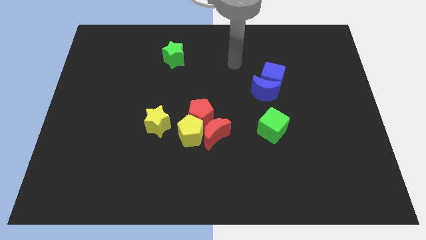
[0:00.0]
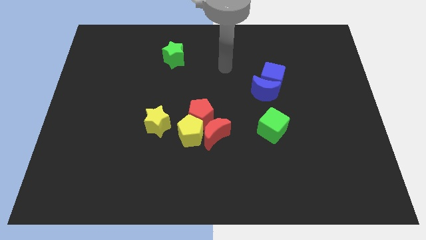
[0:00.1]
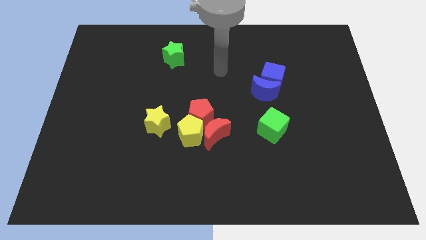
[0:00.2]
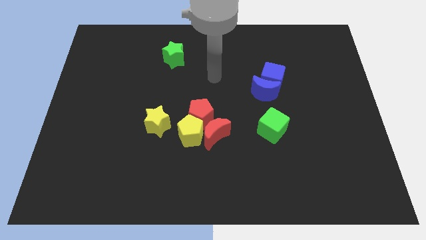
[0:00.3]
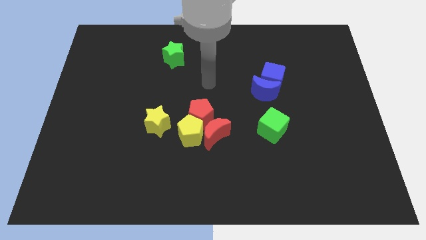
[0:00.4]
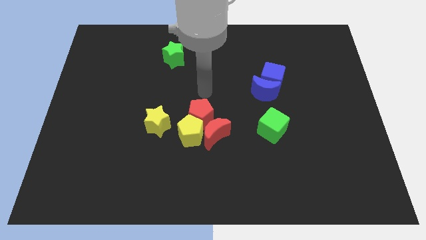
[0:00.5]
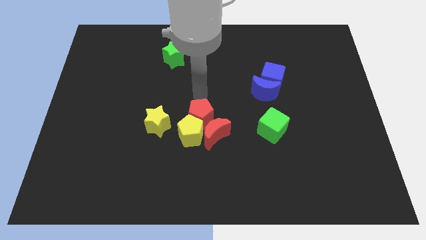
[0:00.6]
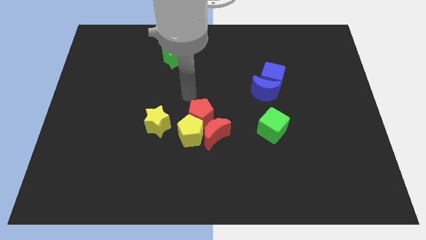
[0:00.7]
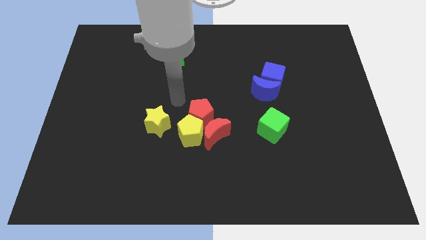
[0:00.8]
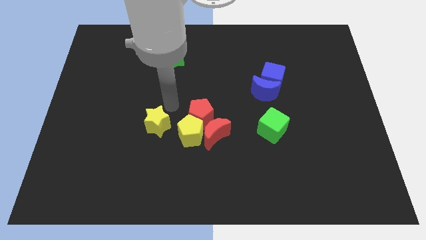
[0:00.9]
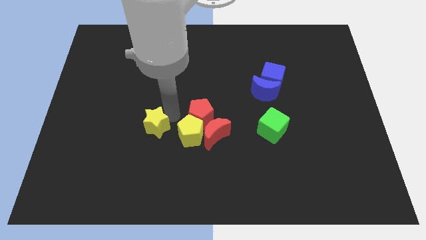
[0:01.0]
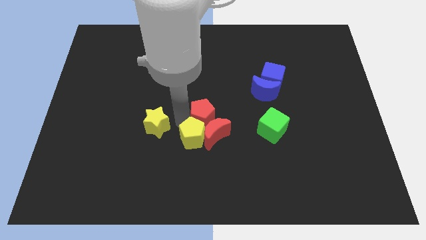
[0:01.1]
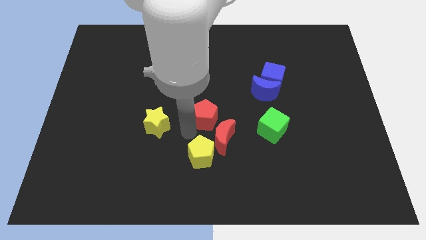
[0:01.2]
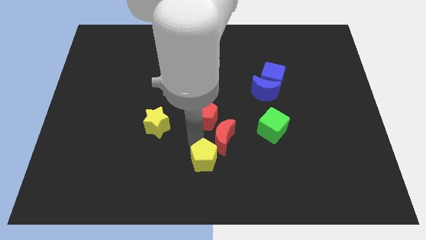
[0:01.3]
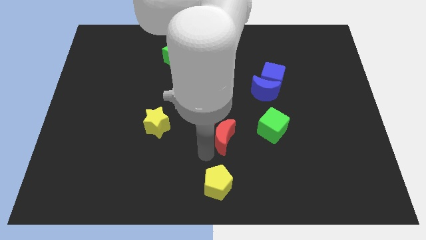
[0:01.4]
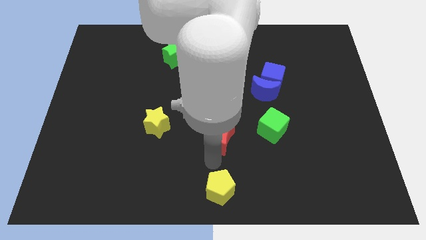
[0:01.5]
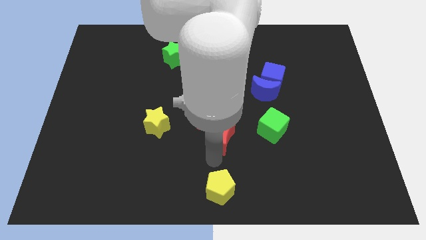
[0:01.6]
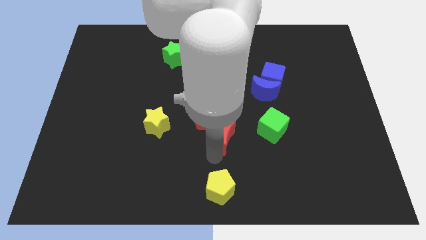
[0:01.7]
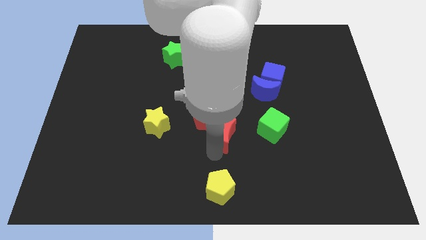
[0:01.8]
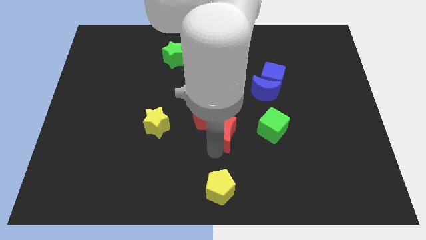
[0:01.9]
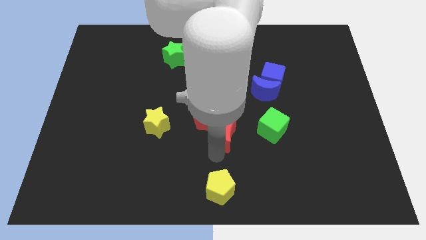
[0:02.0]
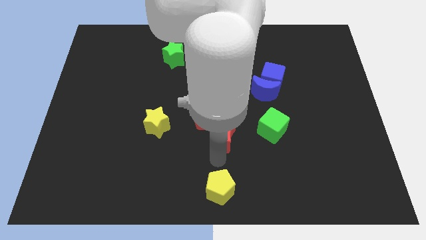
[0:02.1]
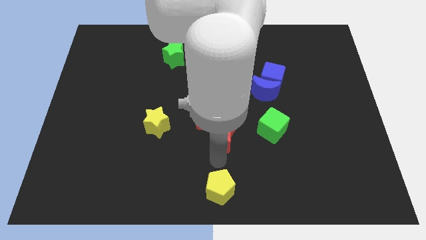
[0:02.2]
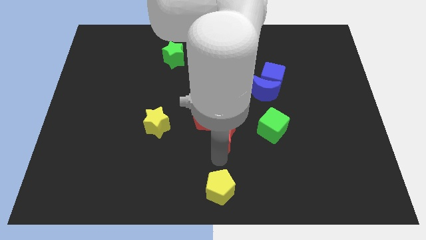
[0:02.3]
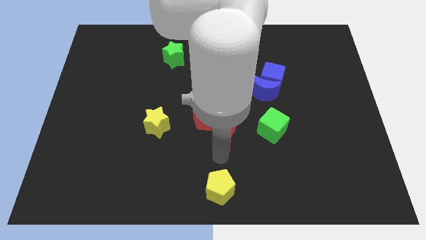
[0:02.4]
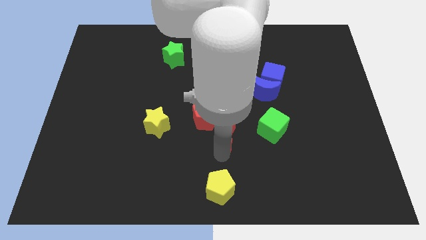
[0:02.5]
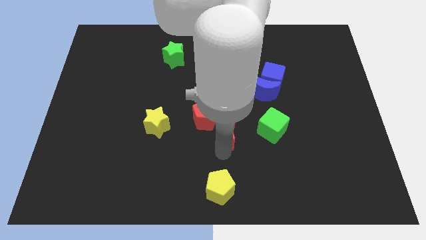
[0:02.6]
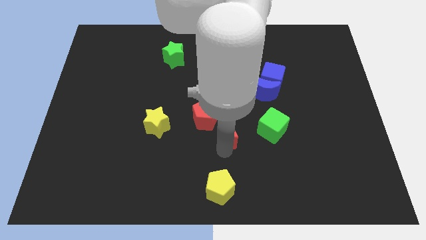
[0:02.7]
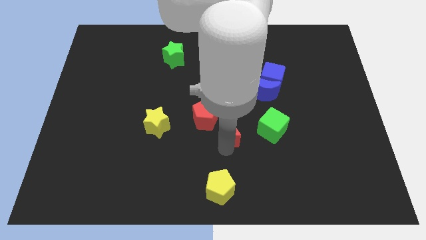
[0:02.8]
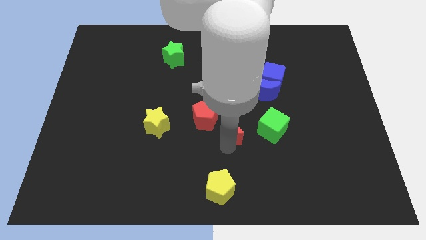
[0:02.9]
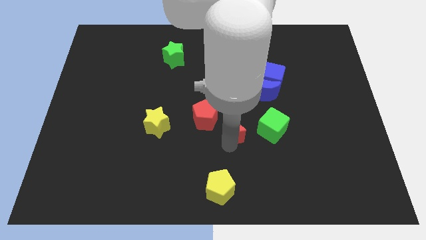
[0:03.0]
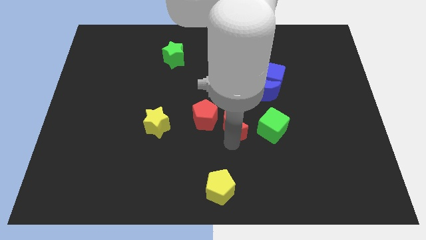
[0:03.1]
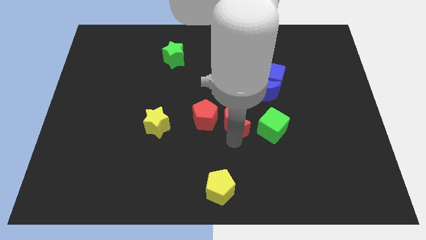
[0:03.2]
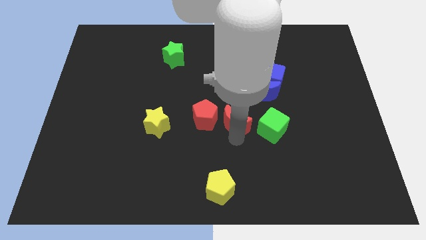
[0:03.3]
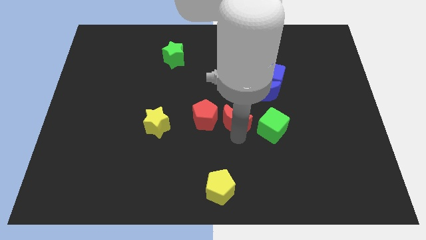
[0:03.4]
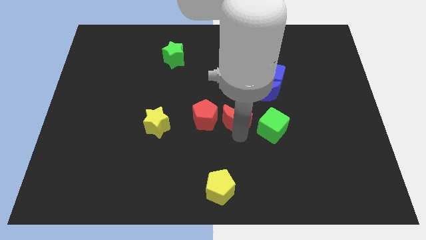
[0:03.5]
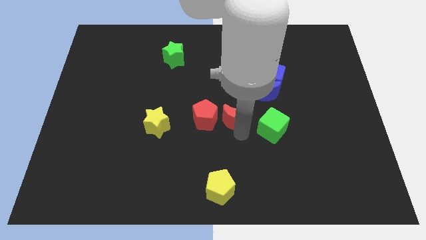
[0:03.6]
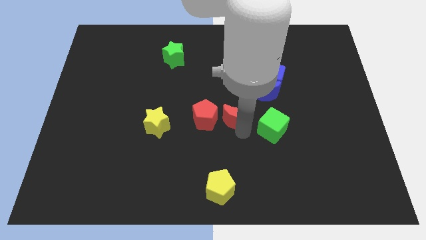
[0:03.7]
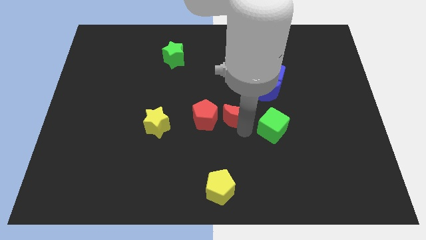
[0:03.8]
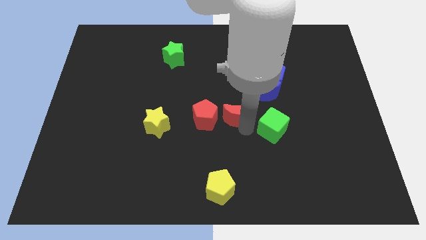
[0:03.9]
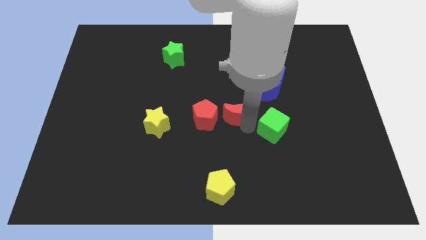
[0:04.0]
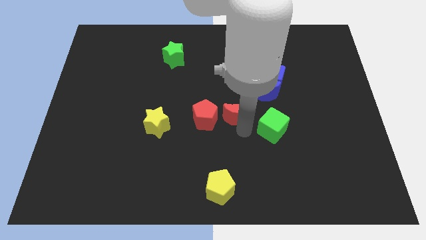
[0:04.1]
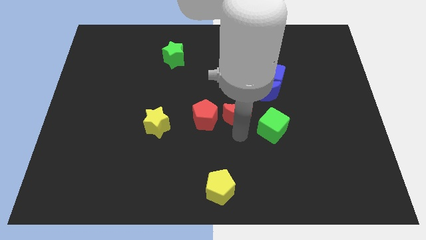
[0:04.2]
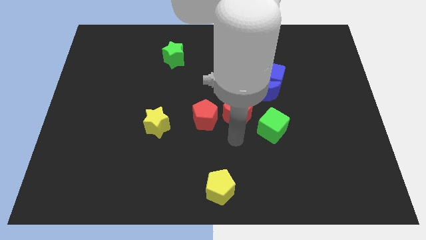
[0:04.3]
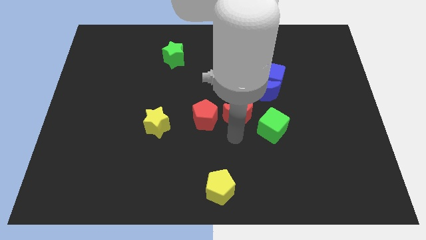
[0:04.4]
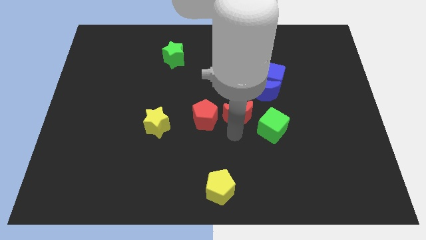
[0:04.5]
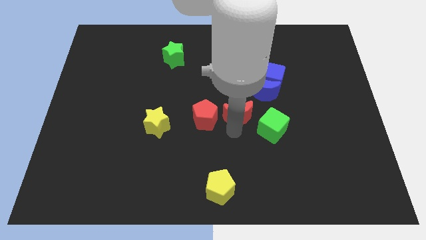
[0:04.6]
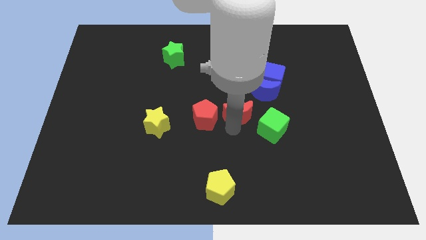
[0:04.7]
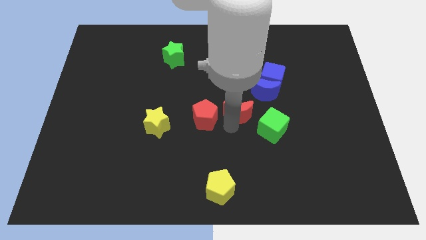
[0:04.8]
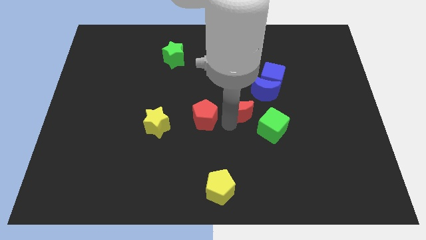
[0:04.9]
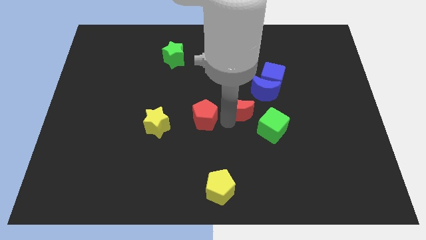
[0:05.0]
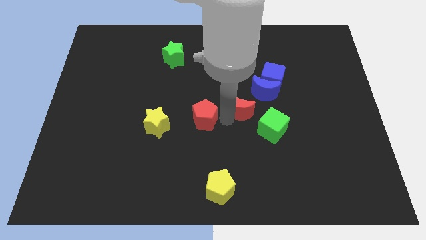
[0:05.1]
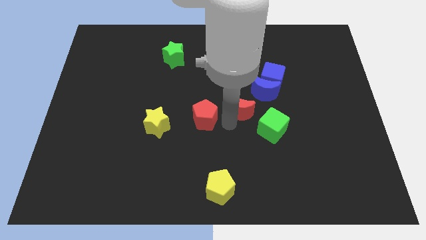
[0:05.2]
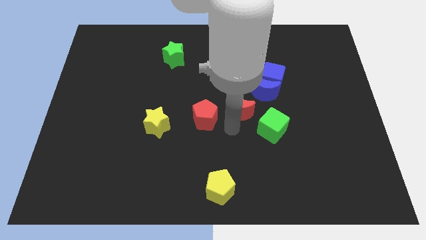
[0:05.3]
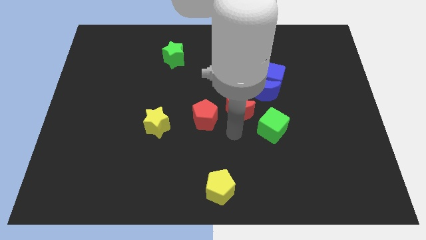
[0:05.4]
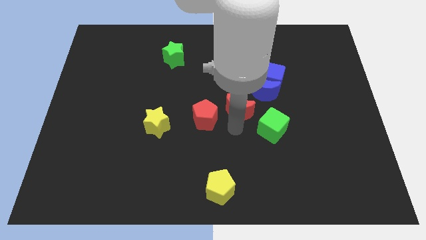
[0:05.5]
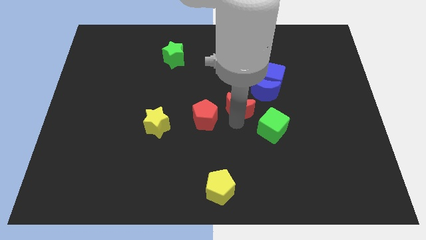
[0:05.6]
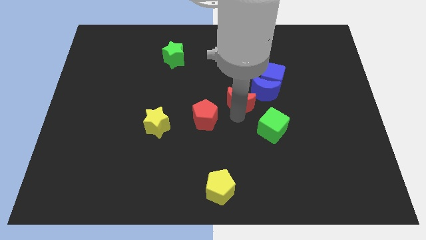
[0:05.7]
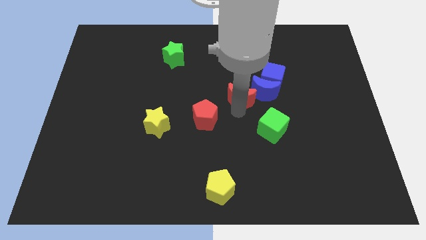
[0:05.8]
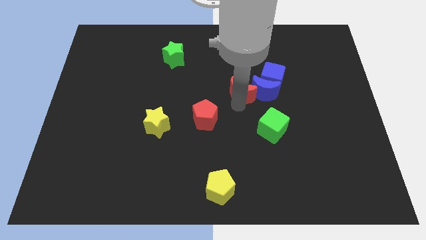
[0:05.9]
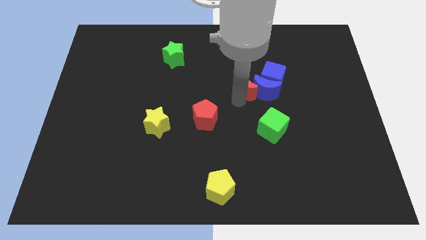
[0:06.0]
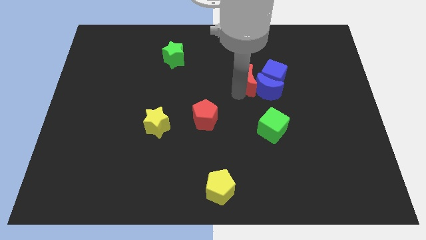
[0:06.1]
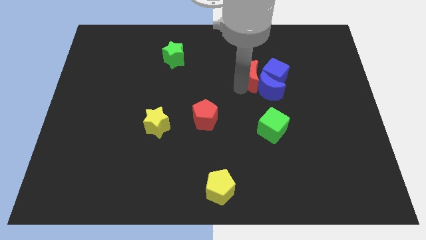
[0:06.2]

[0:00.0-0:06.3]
move the red moon next to the blue cube
